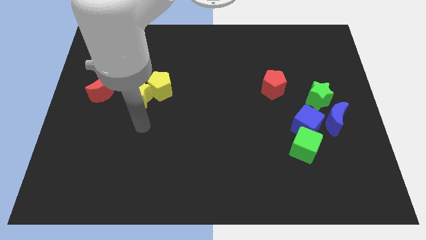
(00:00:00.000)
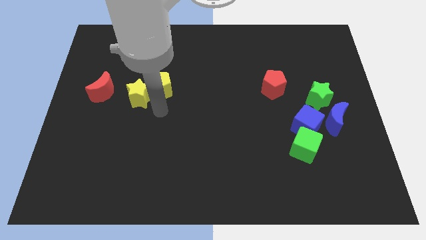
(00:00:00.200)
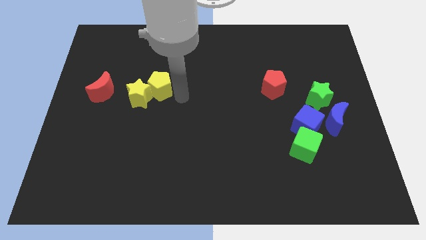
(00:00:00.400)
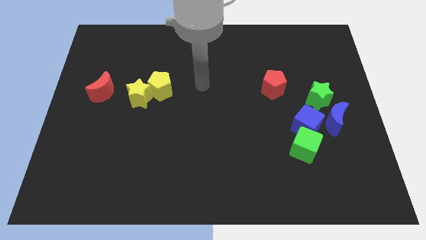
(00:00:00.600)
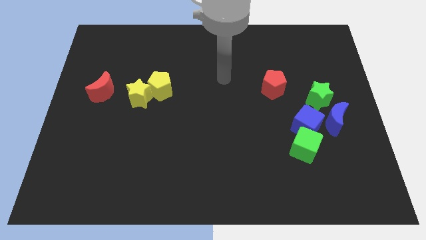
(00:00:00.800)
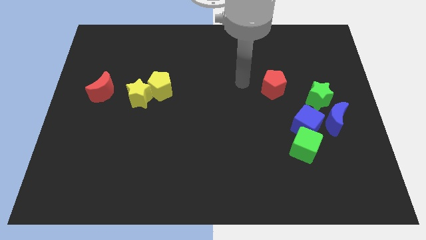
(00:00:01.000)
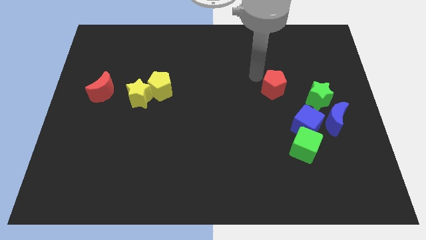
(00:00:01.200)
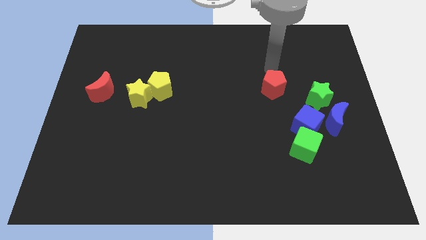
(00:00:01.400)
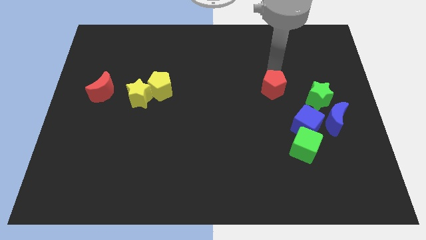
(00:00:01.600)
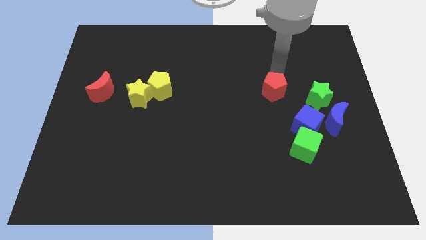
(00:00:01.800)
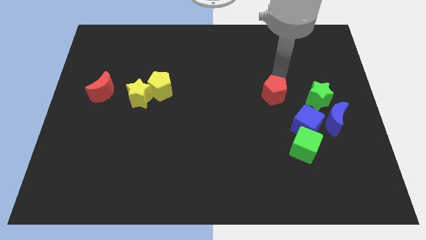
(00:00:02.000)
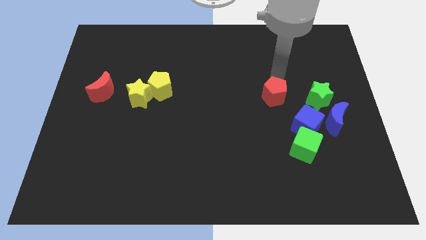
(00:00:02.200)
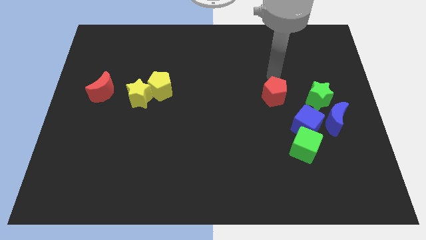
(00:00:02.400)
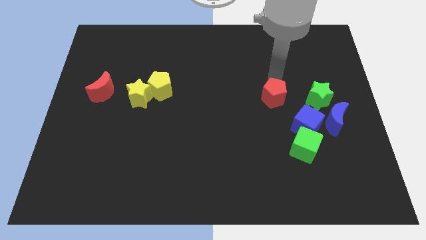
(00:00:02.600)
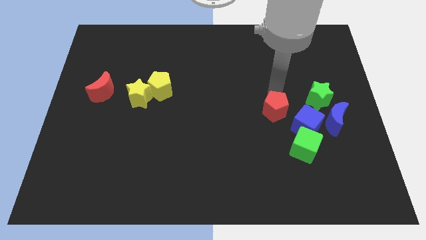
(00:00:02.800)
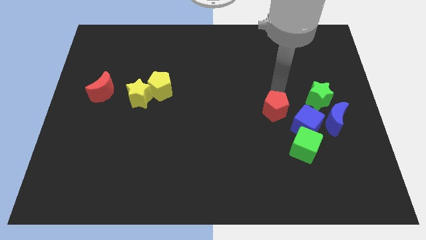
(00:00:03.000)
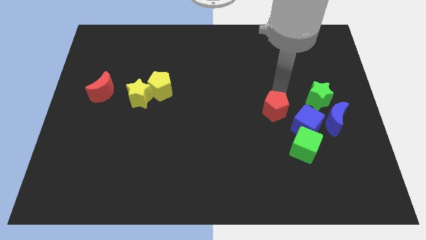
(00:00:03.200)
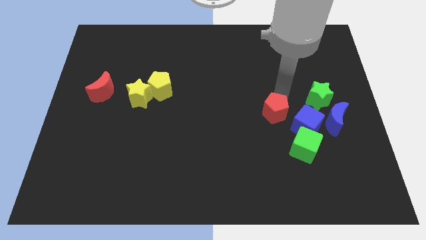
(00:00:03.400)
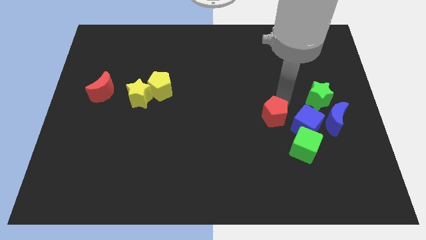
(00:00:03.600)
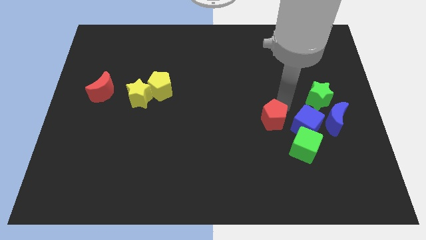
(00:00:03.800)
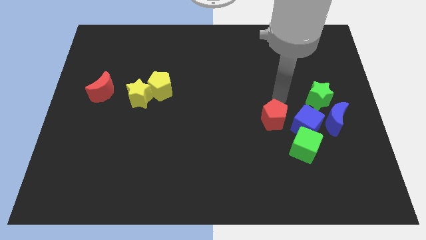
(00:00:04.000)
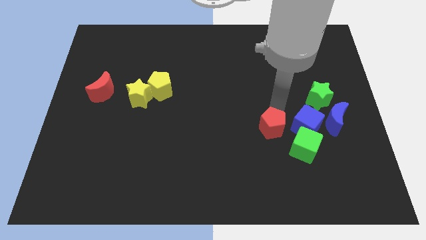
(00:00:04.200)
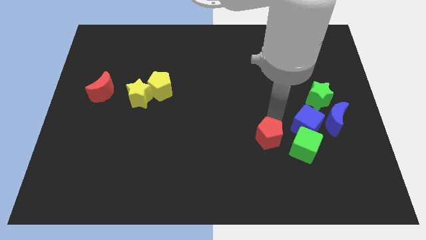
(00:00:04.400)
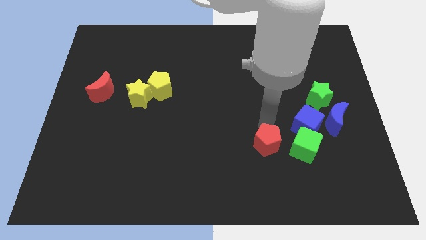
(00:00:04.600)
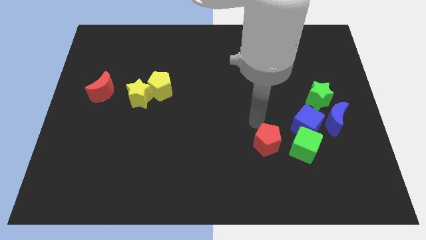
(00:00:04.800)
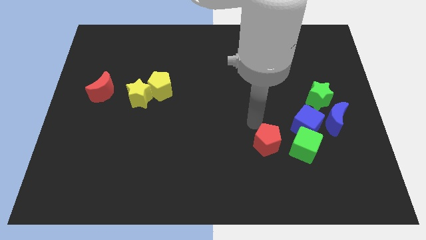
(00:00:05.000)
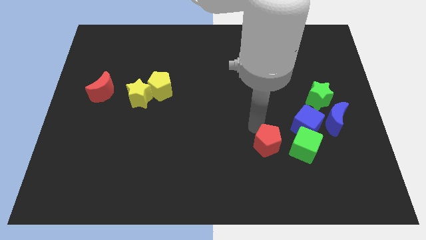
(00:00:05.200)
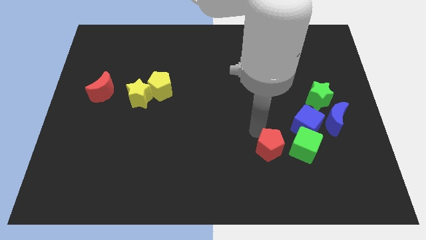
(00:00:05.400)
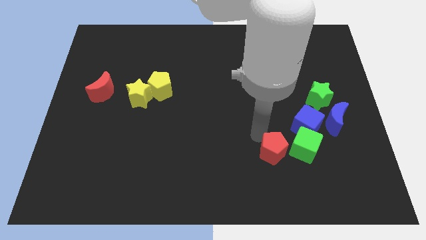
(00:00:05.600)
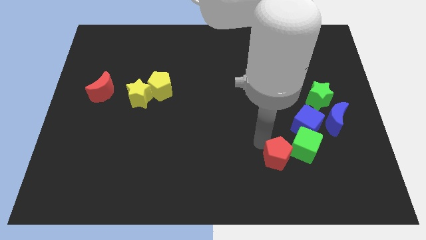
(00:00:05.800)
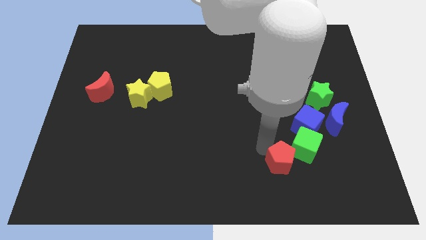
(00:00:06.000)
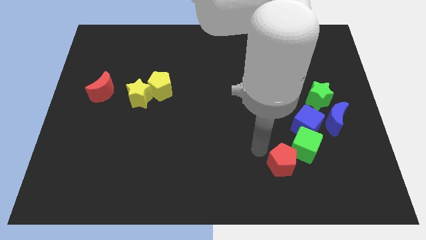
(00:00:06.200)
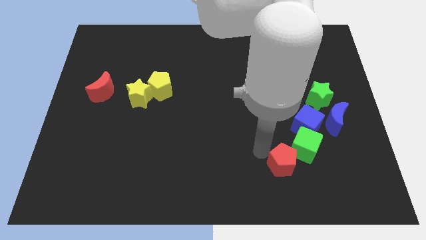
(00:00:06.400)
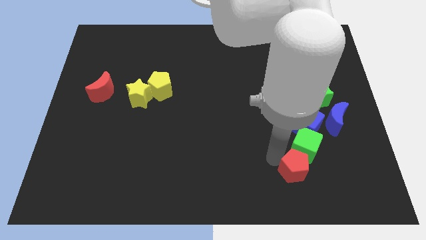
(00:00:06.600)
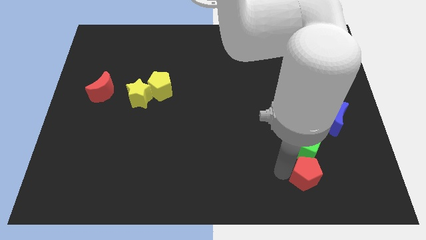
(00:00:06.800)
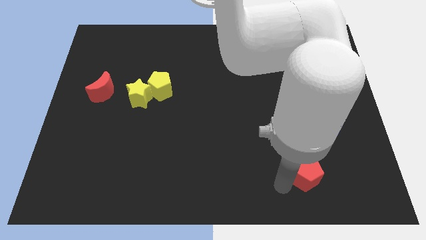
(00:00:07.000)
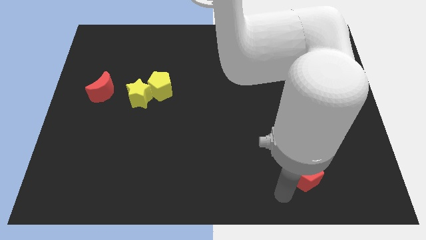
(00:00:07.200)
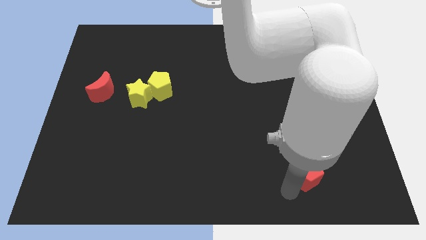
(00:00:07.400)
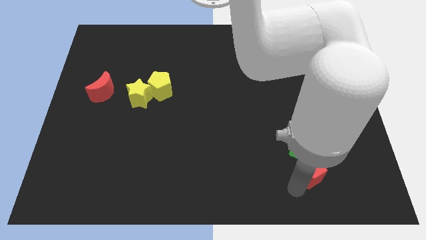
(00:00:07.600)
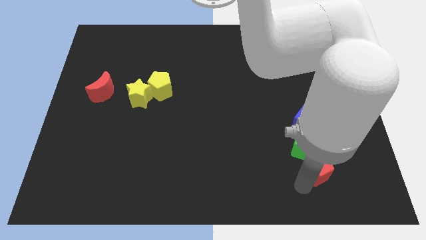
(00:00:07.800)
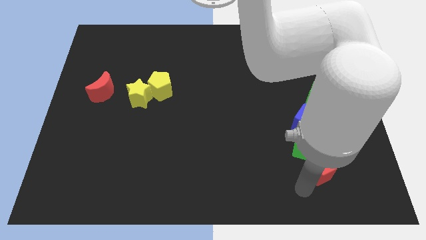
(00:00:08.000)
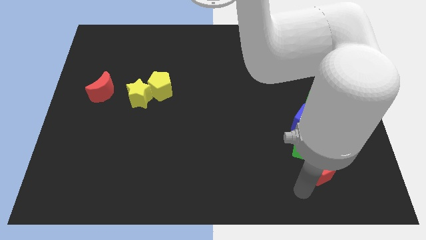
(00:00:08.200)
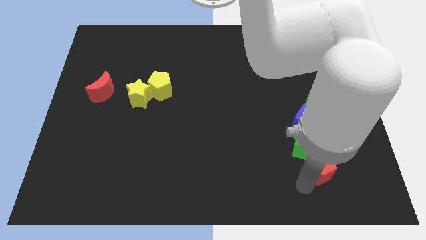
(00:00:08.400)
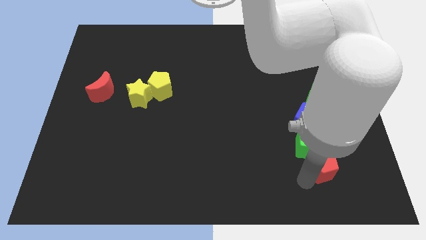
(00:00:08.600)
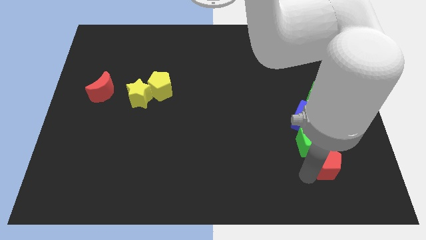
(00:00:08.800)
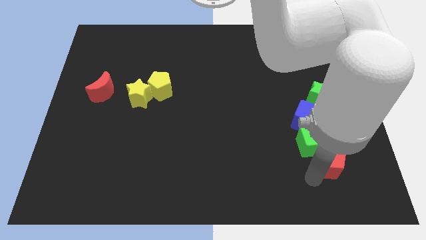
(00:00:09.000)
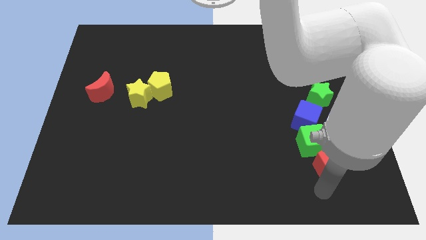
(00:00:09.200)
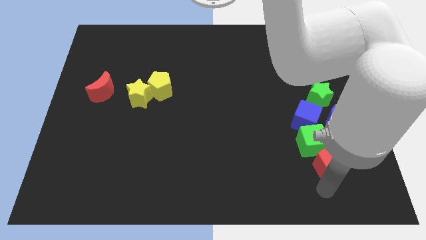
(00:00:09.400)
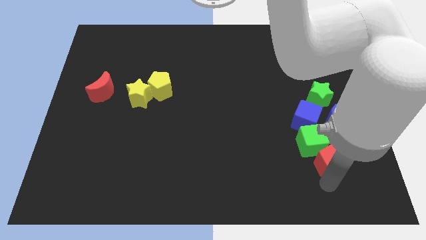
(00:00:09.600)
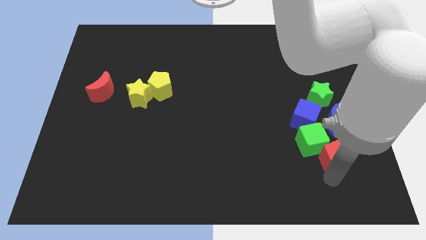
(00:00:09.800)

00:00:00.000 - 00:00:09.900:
move the red pentagon to the bottom right side of the blue cube

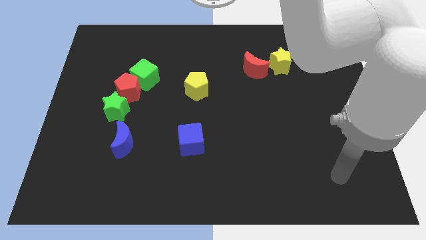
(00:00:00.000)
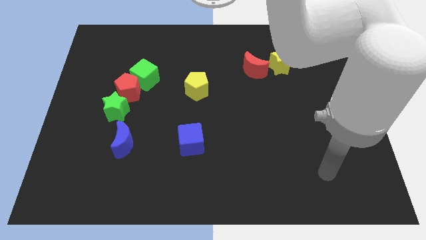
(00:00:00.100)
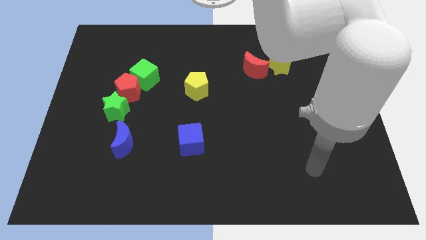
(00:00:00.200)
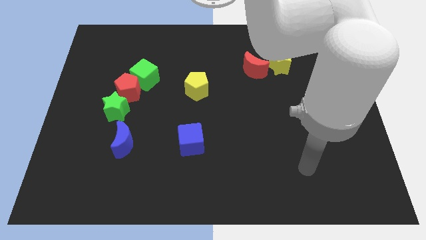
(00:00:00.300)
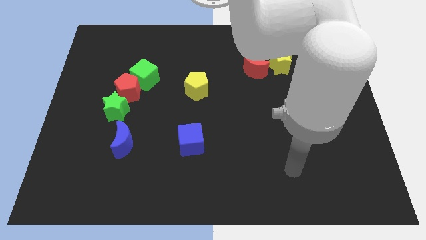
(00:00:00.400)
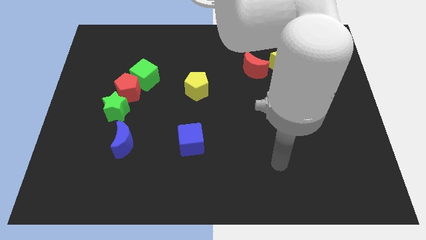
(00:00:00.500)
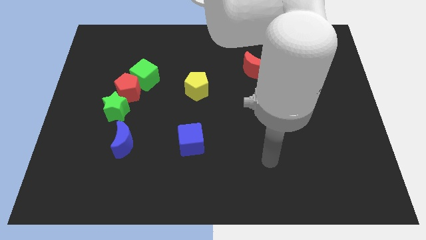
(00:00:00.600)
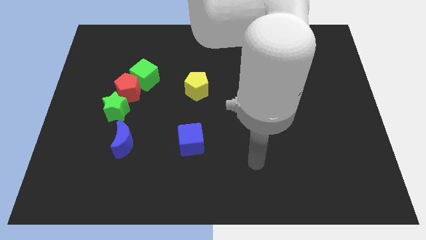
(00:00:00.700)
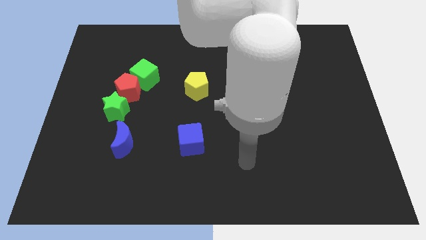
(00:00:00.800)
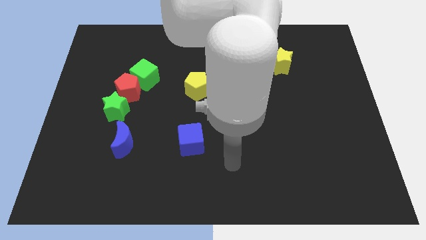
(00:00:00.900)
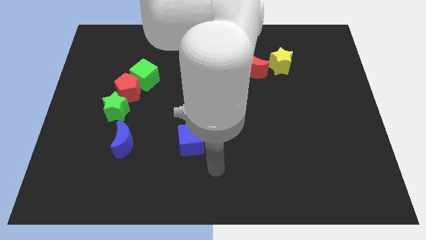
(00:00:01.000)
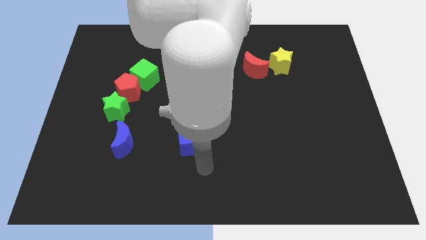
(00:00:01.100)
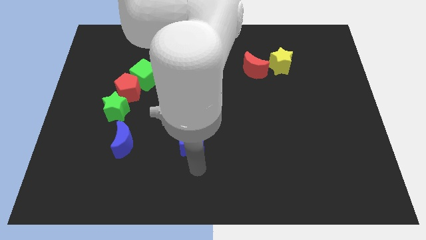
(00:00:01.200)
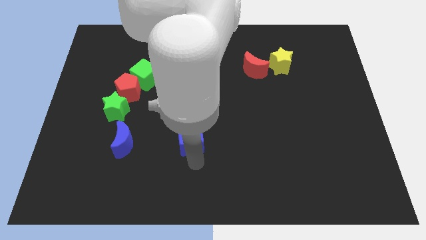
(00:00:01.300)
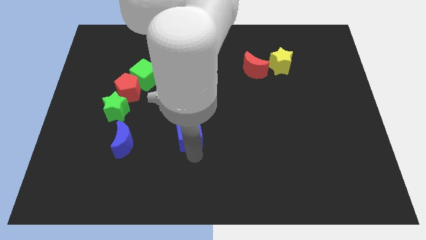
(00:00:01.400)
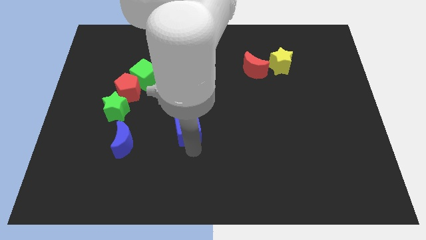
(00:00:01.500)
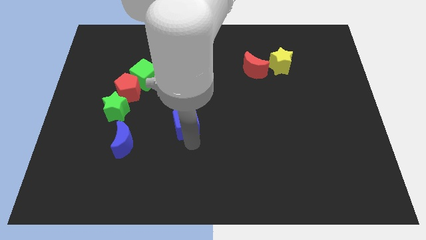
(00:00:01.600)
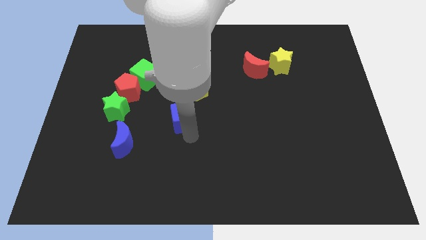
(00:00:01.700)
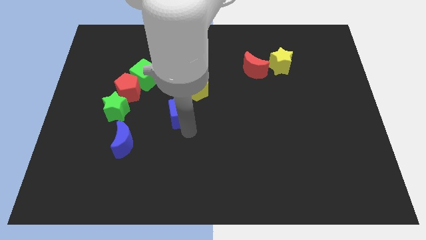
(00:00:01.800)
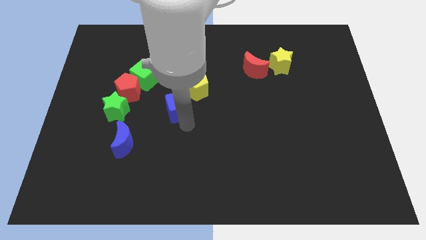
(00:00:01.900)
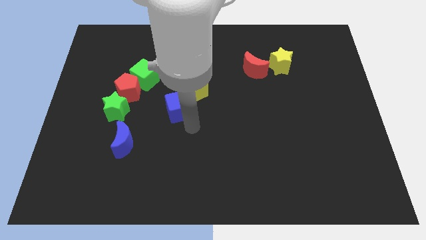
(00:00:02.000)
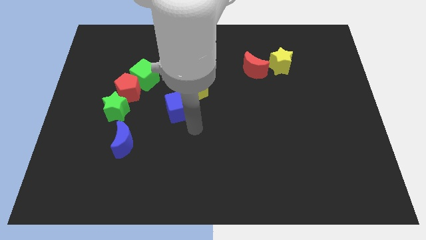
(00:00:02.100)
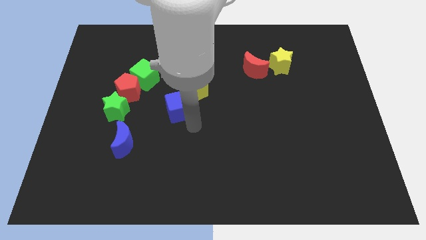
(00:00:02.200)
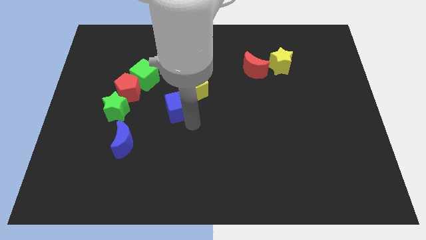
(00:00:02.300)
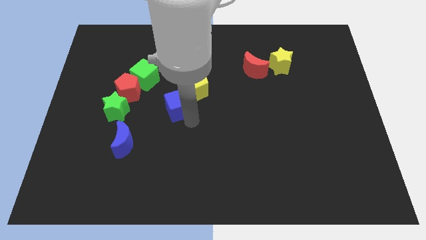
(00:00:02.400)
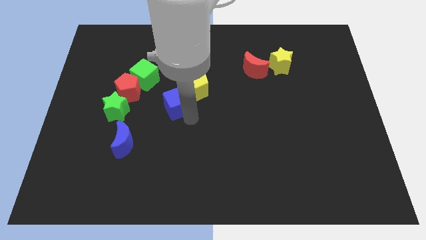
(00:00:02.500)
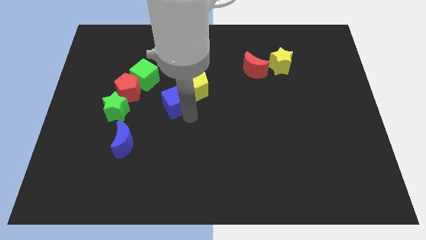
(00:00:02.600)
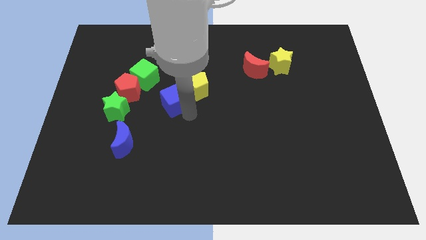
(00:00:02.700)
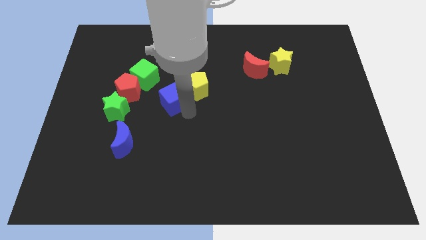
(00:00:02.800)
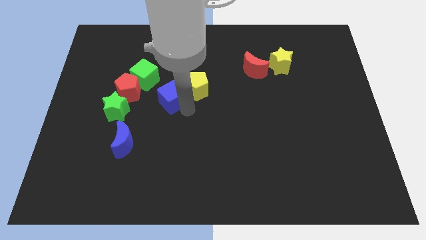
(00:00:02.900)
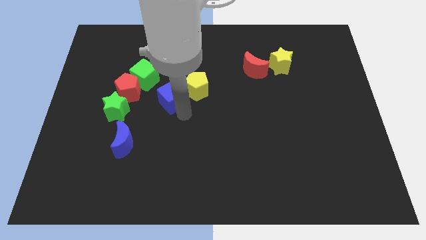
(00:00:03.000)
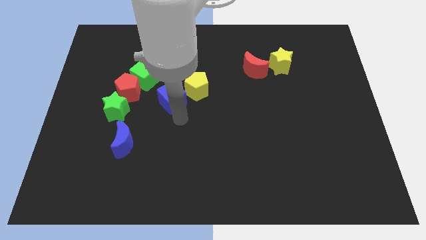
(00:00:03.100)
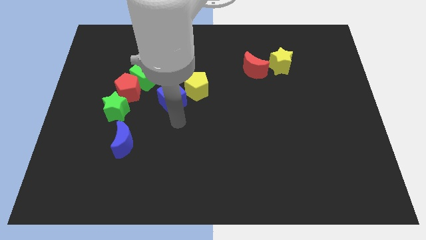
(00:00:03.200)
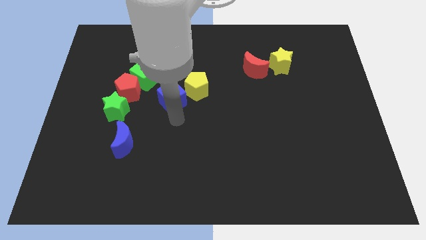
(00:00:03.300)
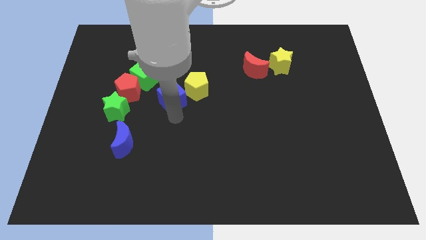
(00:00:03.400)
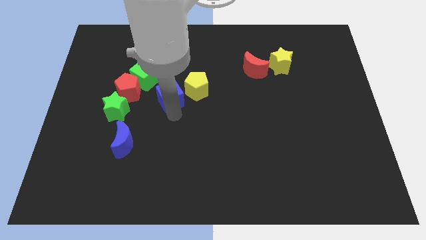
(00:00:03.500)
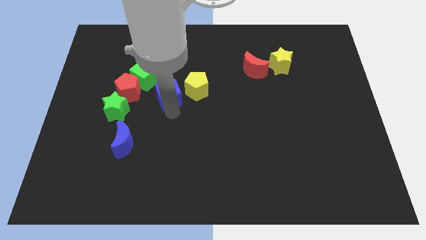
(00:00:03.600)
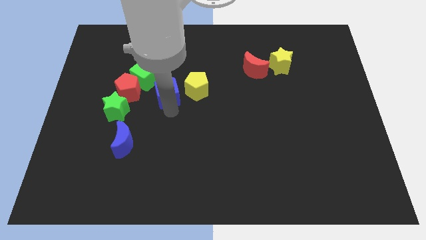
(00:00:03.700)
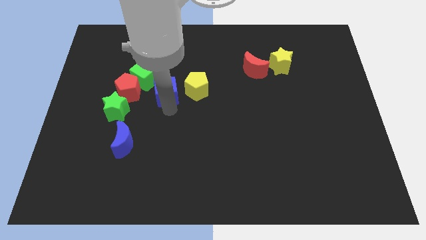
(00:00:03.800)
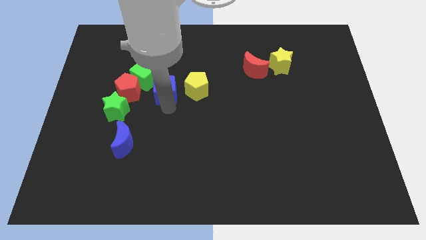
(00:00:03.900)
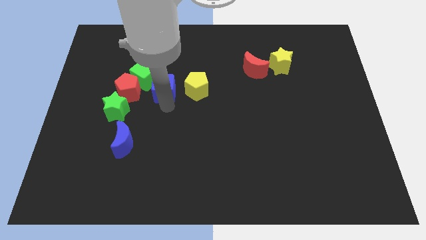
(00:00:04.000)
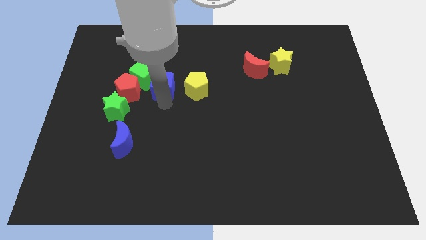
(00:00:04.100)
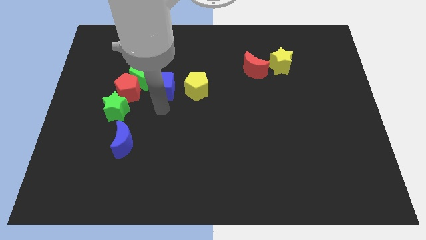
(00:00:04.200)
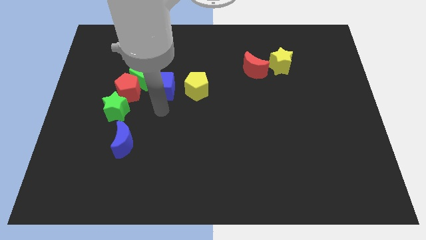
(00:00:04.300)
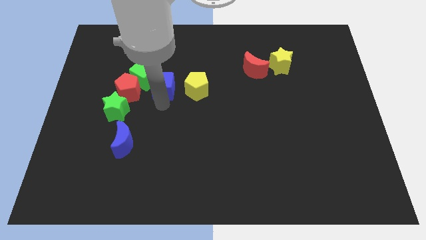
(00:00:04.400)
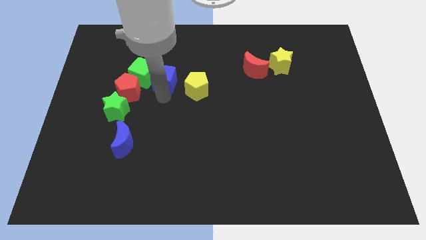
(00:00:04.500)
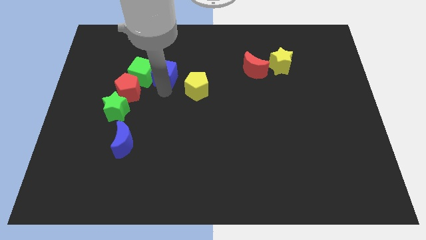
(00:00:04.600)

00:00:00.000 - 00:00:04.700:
move the blue cube diagonally up and to the right of the green cube
